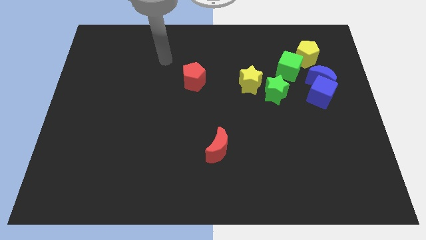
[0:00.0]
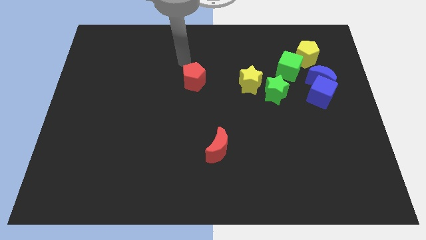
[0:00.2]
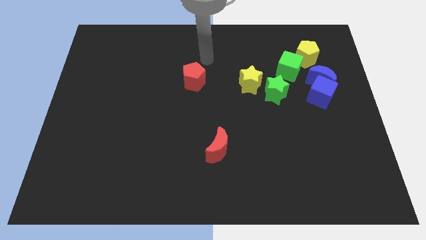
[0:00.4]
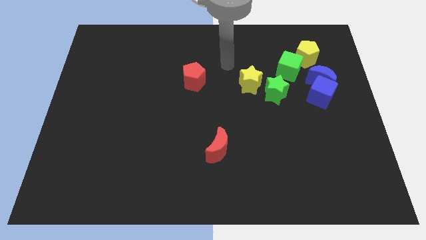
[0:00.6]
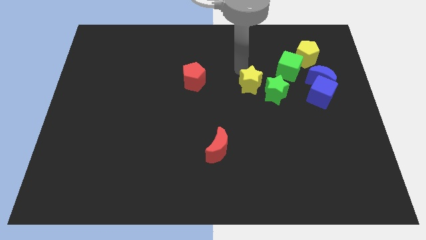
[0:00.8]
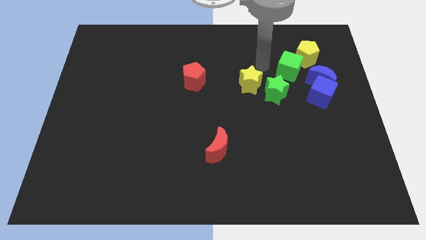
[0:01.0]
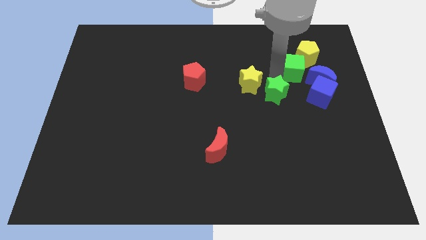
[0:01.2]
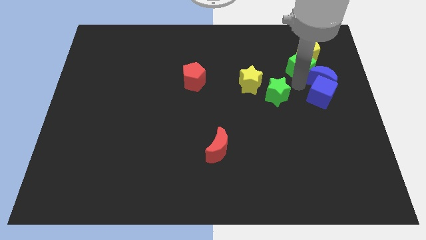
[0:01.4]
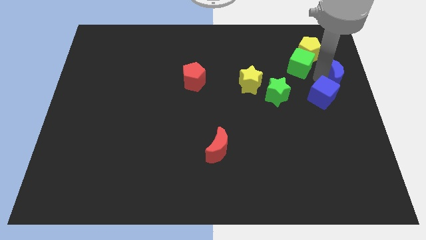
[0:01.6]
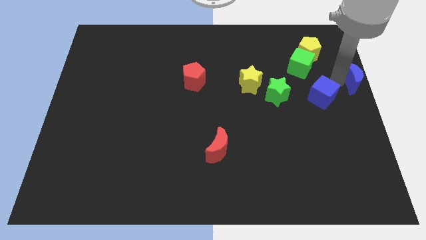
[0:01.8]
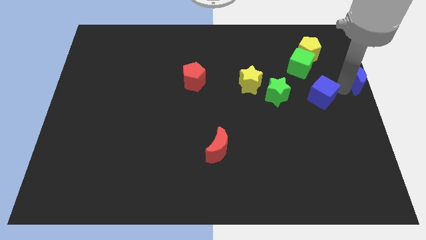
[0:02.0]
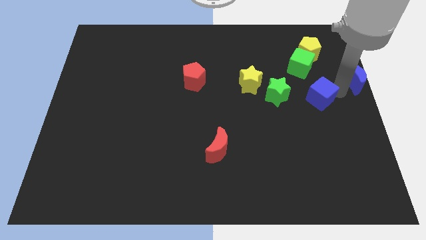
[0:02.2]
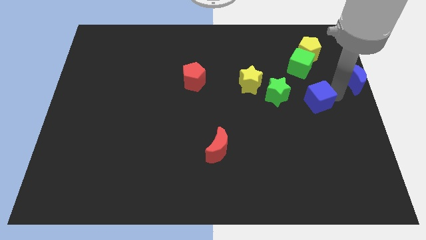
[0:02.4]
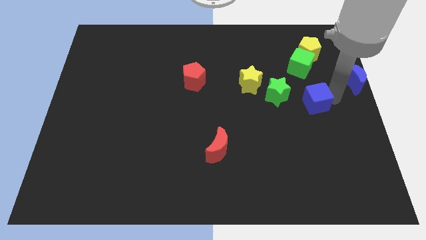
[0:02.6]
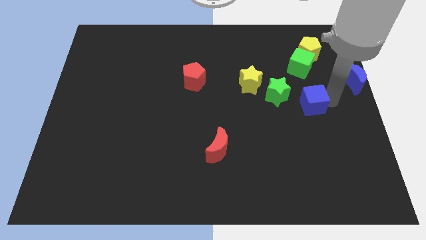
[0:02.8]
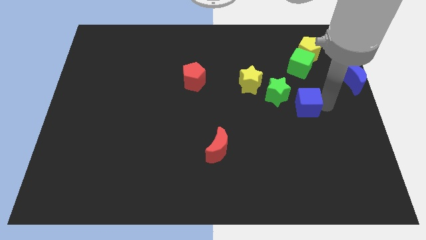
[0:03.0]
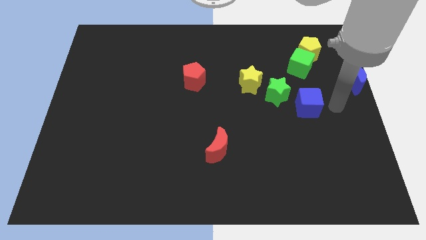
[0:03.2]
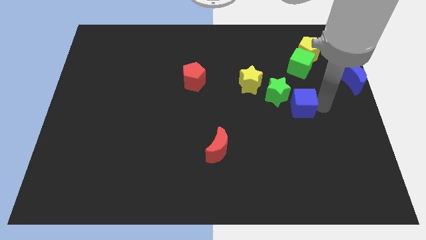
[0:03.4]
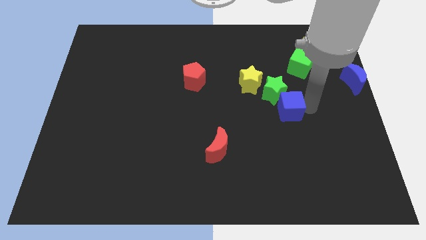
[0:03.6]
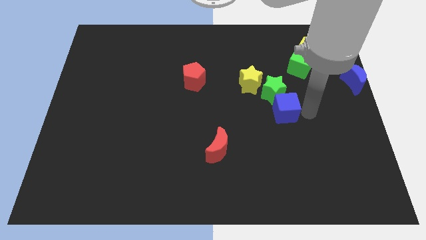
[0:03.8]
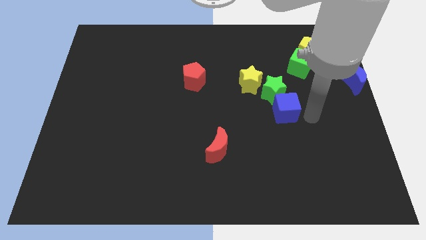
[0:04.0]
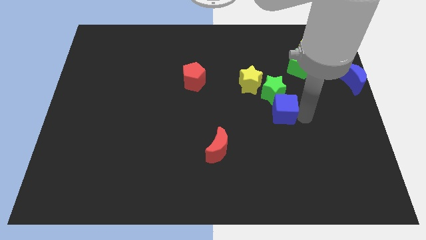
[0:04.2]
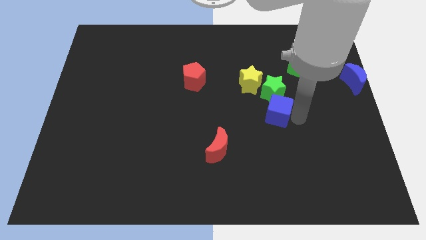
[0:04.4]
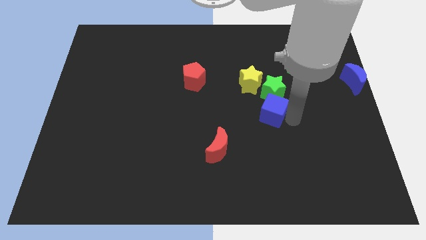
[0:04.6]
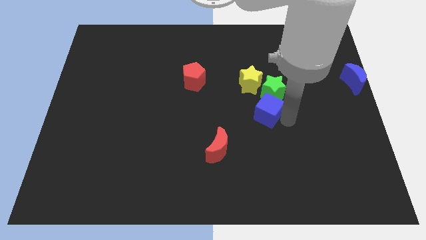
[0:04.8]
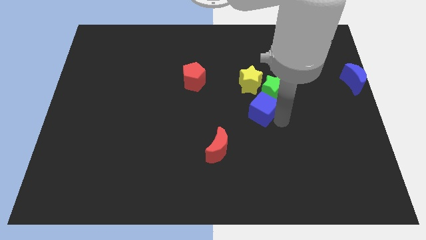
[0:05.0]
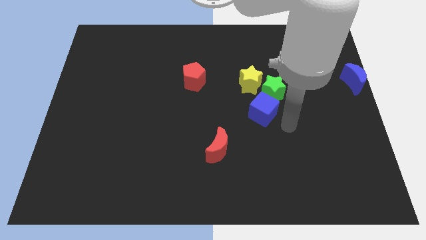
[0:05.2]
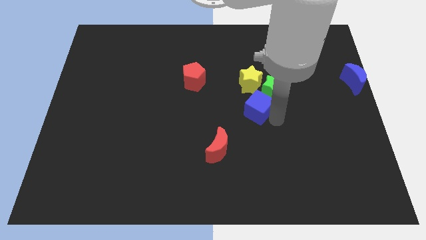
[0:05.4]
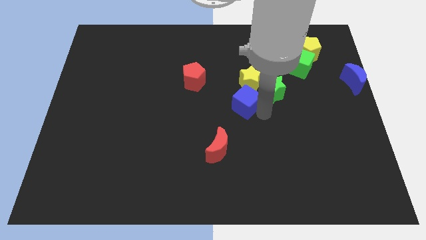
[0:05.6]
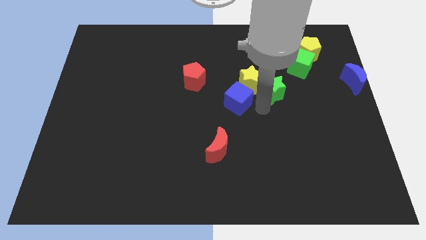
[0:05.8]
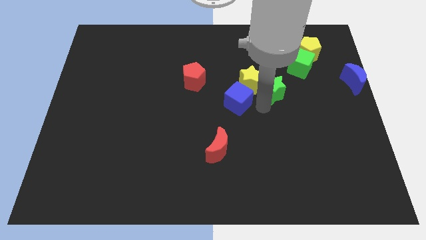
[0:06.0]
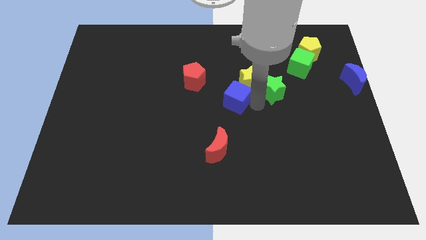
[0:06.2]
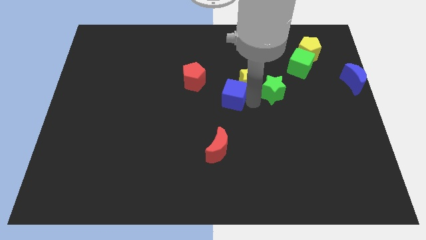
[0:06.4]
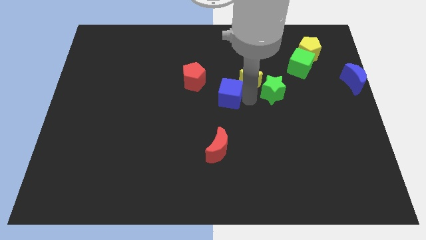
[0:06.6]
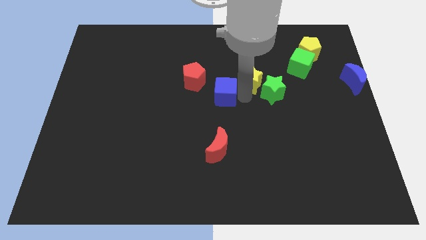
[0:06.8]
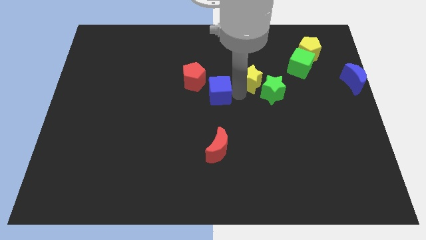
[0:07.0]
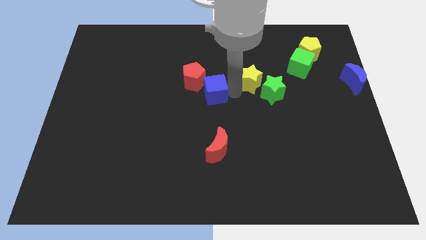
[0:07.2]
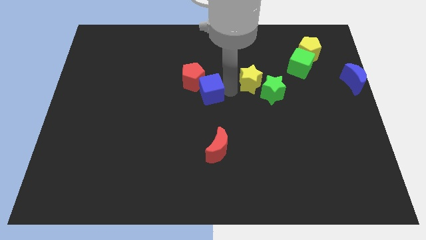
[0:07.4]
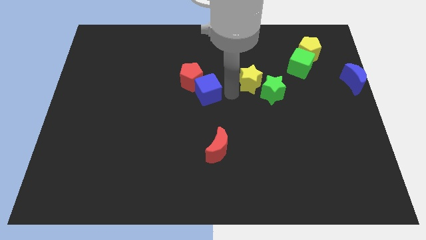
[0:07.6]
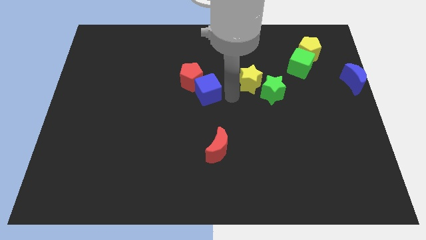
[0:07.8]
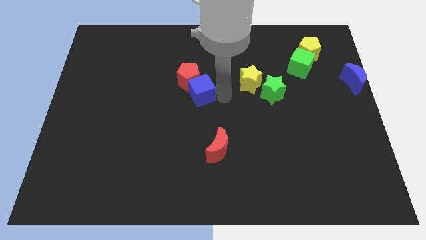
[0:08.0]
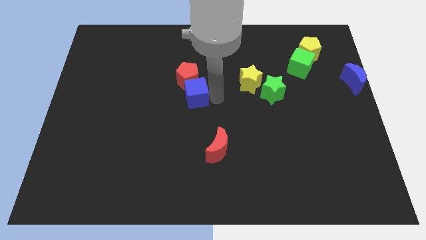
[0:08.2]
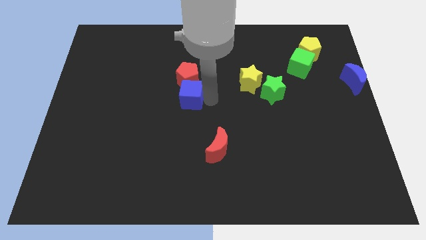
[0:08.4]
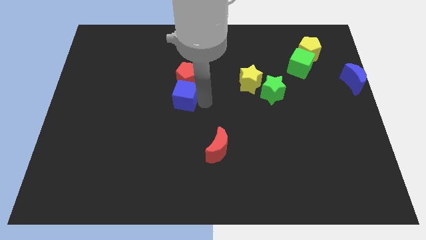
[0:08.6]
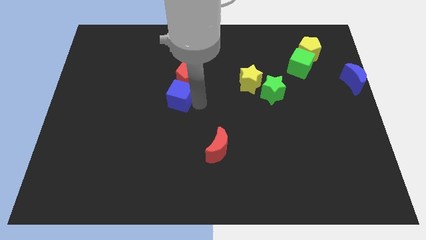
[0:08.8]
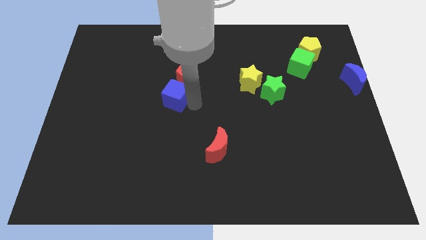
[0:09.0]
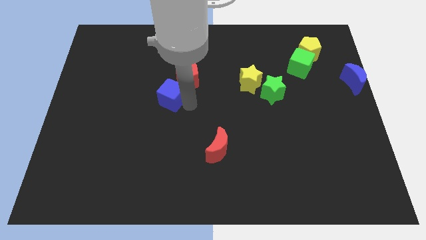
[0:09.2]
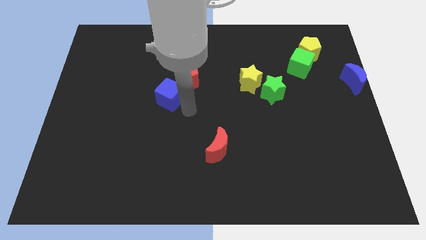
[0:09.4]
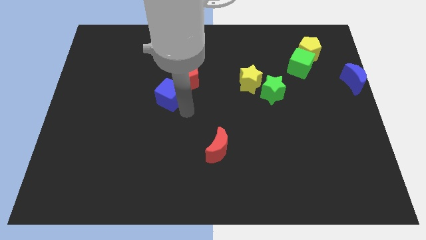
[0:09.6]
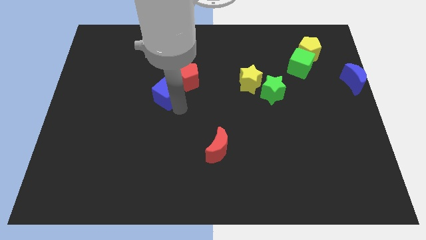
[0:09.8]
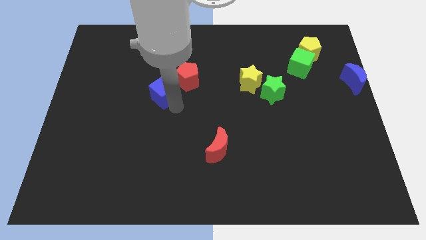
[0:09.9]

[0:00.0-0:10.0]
put the blue cube to the left side of the red pentagon

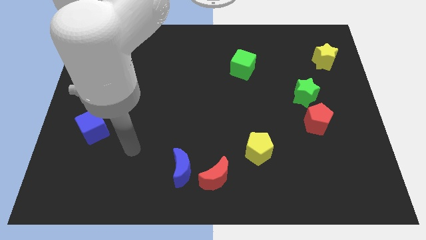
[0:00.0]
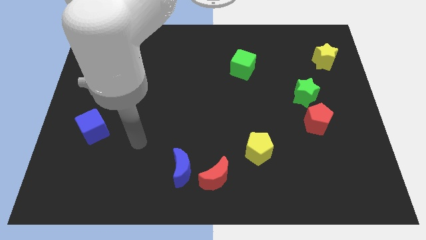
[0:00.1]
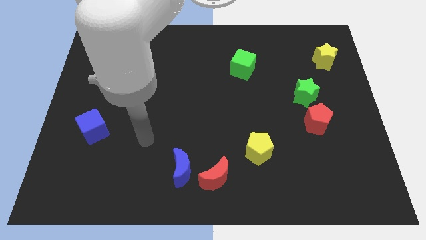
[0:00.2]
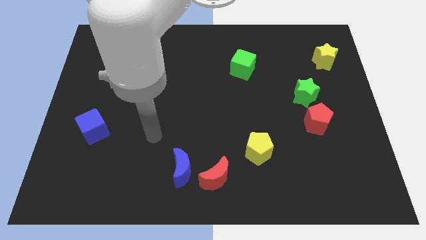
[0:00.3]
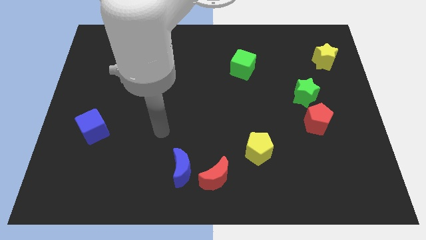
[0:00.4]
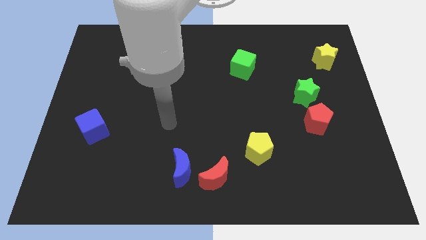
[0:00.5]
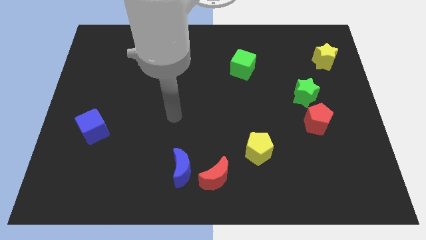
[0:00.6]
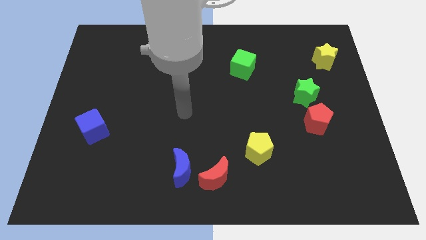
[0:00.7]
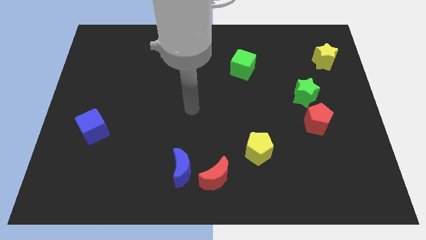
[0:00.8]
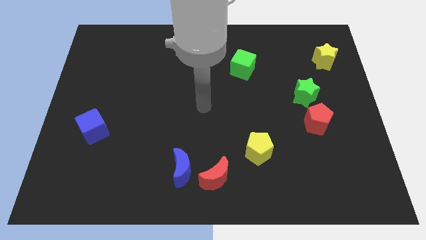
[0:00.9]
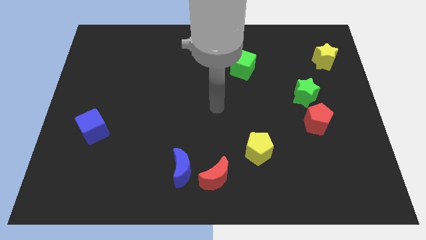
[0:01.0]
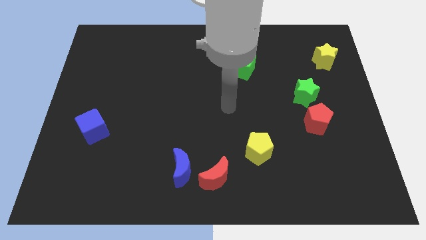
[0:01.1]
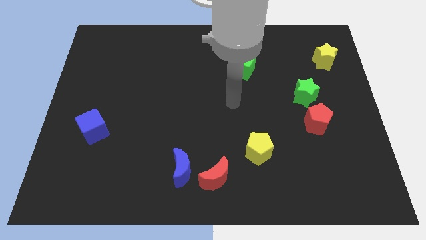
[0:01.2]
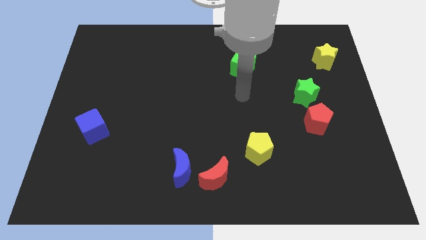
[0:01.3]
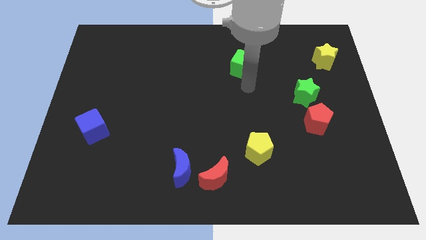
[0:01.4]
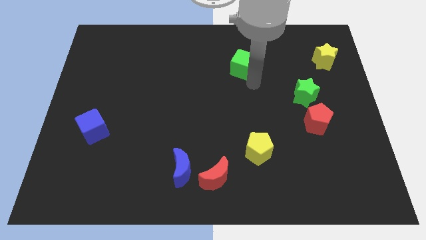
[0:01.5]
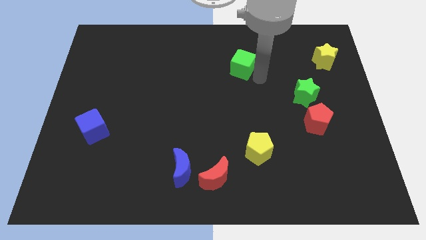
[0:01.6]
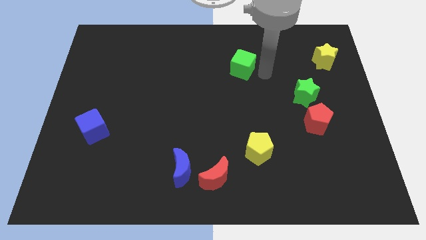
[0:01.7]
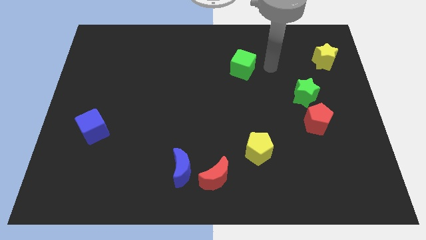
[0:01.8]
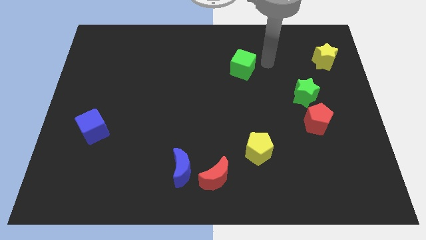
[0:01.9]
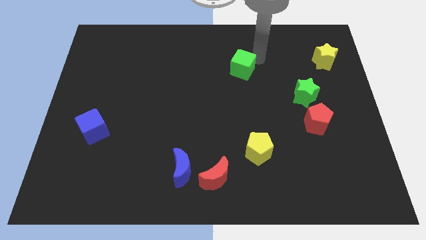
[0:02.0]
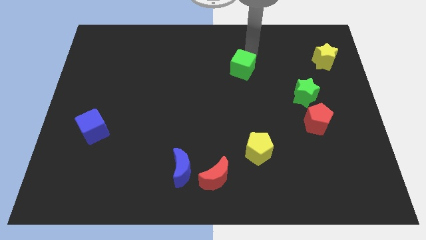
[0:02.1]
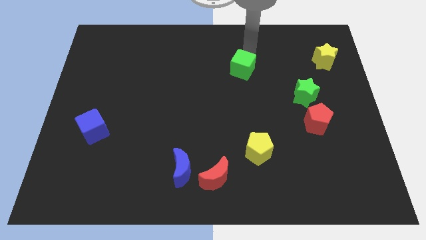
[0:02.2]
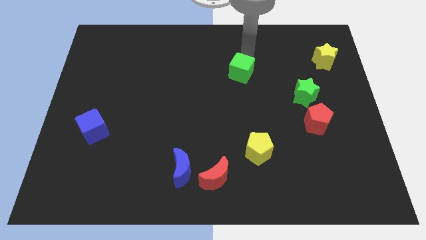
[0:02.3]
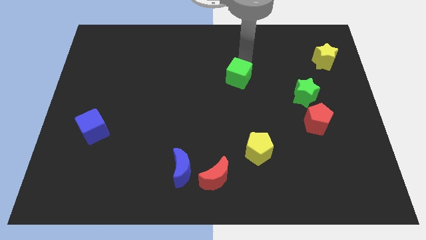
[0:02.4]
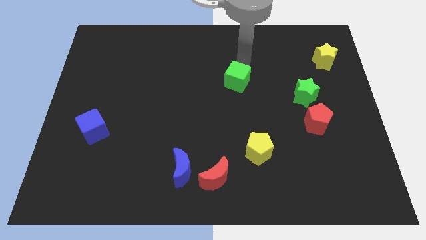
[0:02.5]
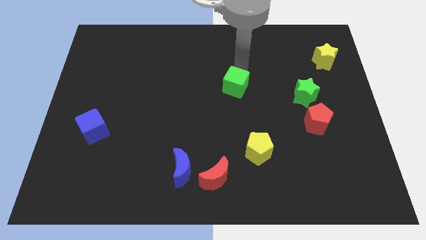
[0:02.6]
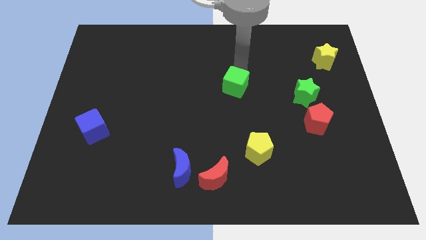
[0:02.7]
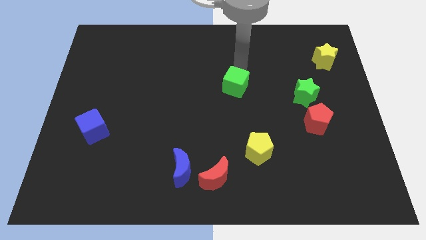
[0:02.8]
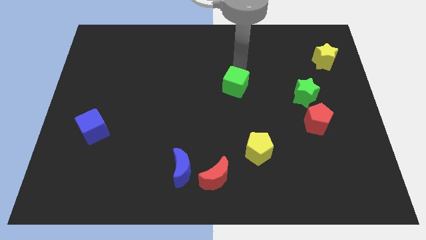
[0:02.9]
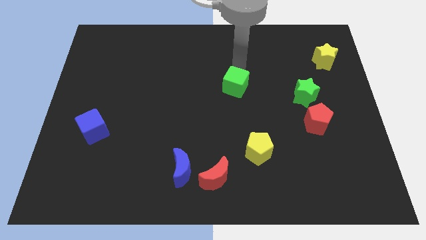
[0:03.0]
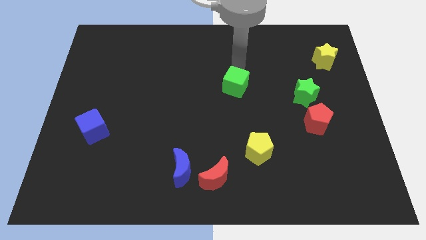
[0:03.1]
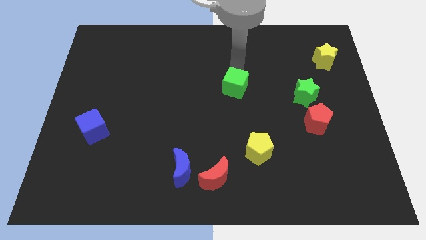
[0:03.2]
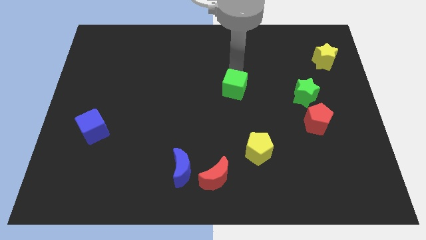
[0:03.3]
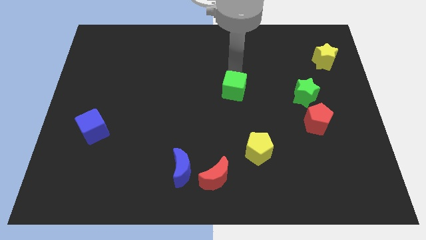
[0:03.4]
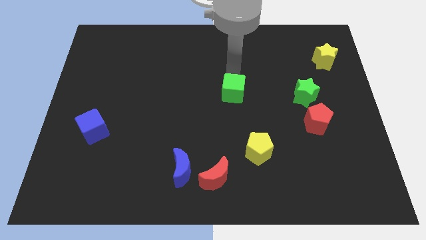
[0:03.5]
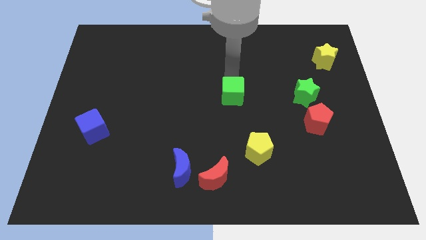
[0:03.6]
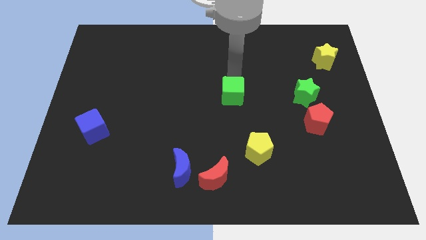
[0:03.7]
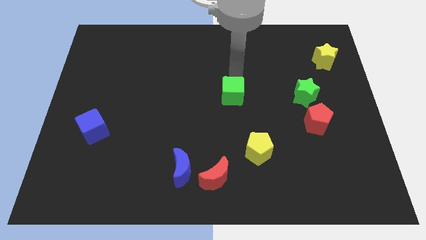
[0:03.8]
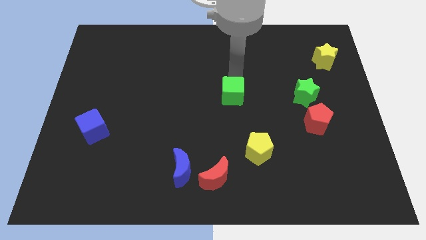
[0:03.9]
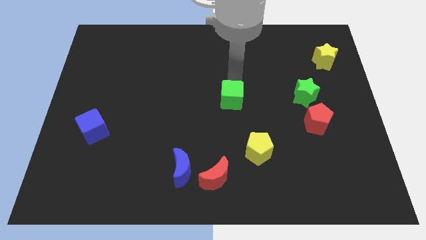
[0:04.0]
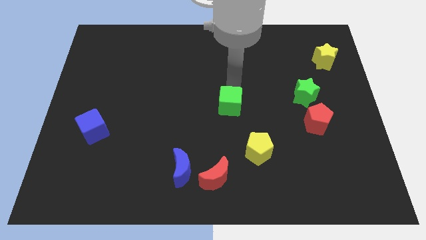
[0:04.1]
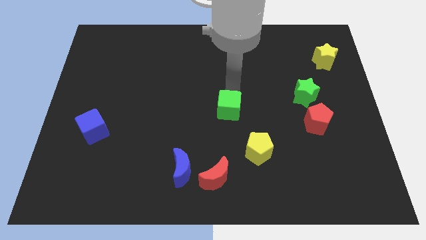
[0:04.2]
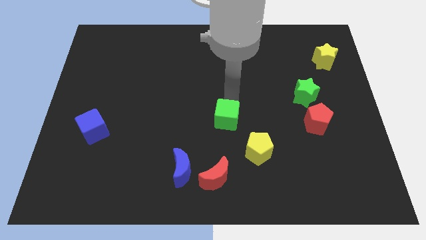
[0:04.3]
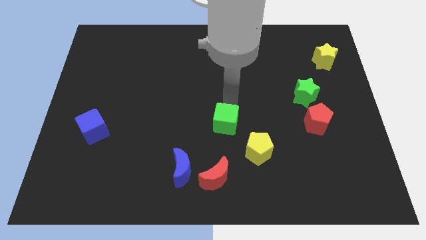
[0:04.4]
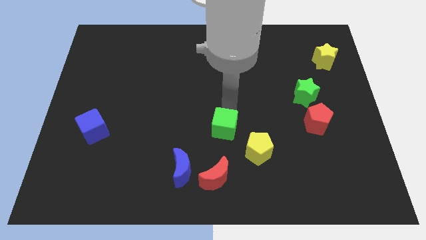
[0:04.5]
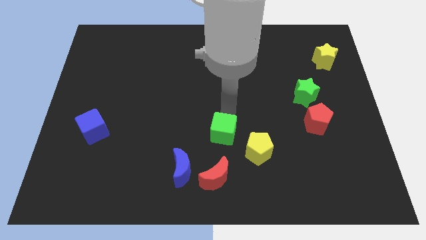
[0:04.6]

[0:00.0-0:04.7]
put the green cube to the left of the yellow pentagon
